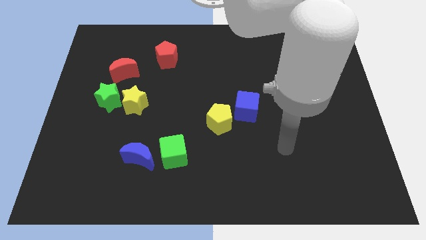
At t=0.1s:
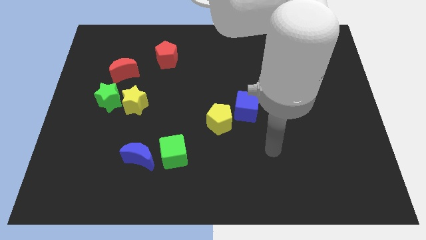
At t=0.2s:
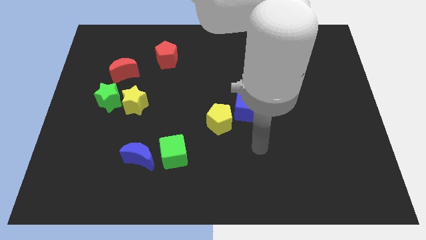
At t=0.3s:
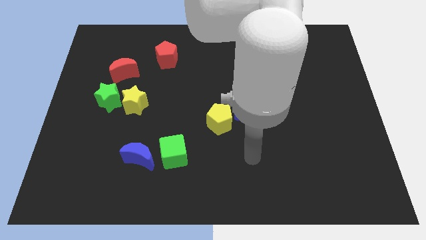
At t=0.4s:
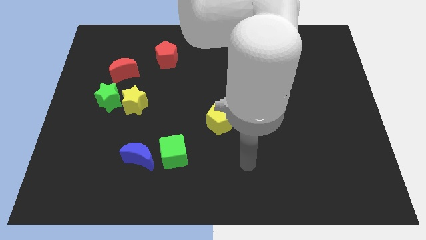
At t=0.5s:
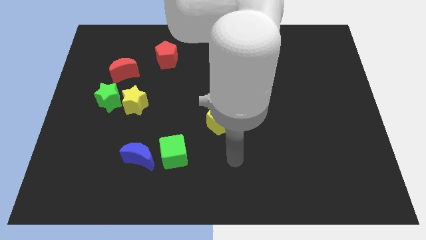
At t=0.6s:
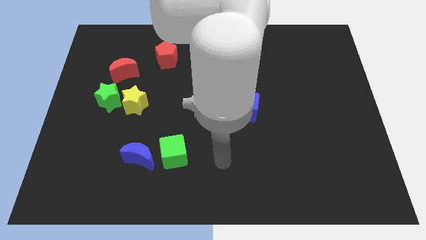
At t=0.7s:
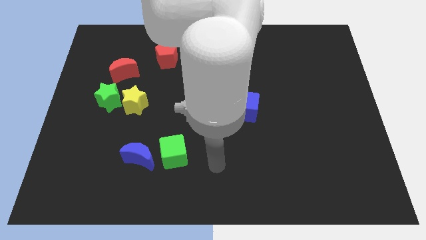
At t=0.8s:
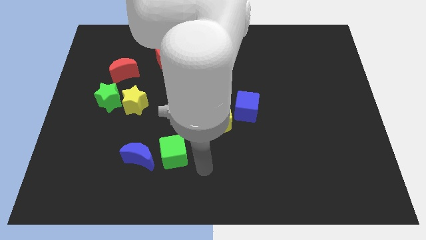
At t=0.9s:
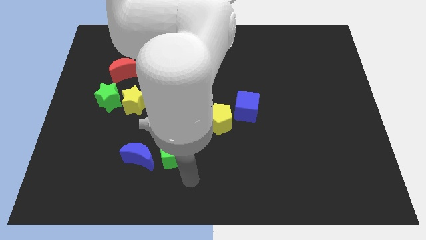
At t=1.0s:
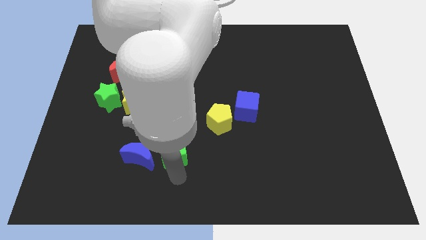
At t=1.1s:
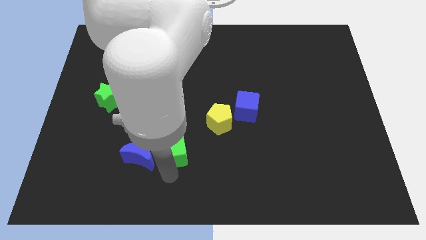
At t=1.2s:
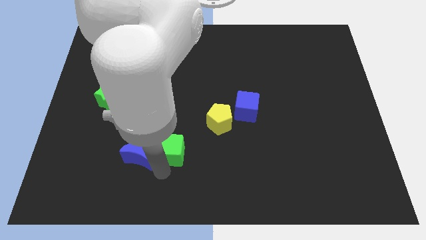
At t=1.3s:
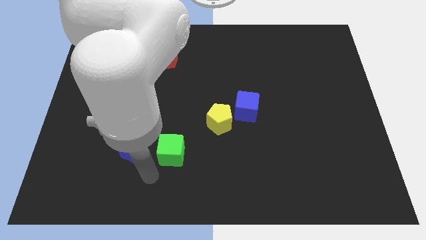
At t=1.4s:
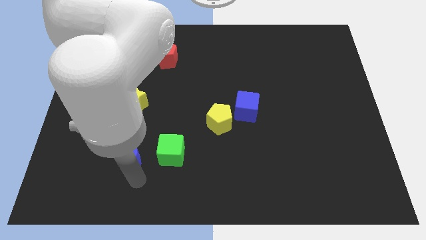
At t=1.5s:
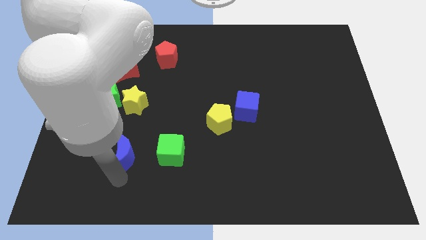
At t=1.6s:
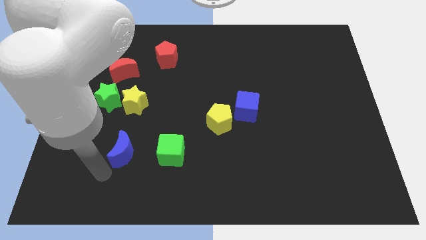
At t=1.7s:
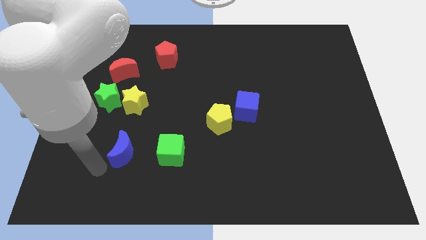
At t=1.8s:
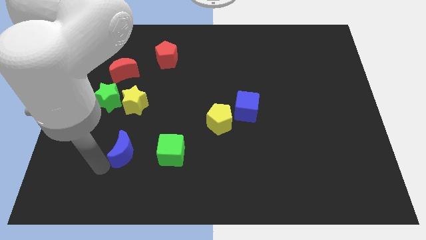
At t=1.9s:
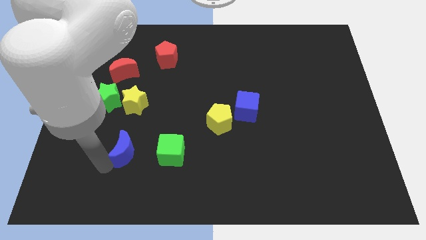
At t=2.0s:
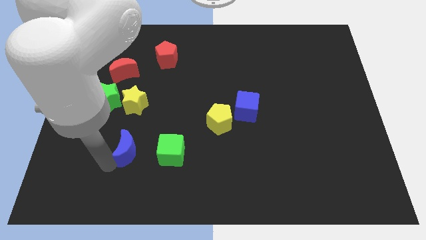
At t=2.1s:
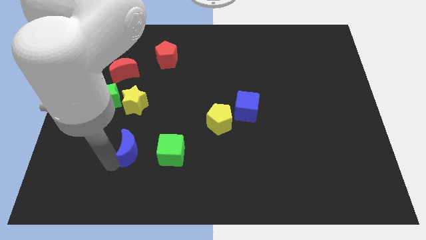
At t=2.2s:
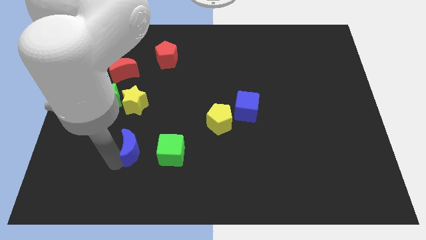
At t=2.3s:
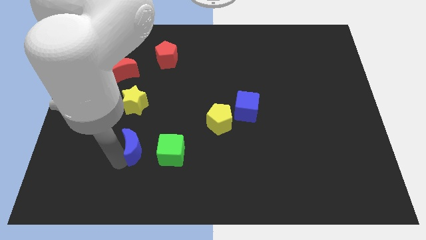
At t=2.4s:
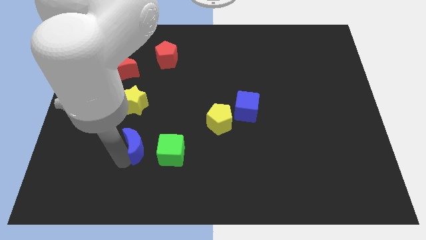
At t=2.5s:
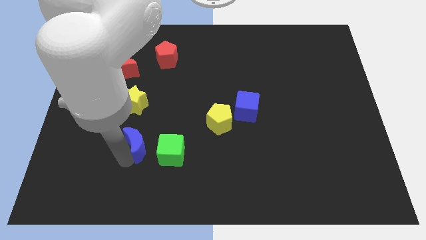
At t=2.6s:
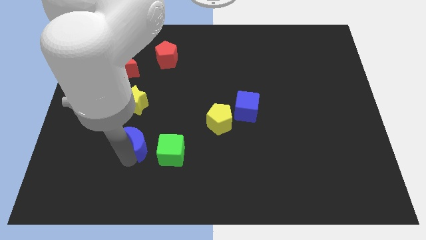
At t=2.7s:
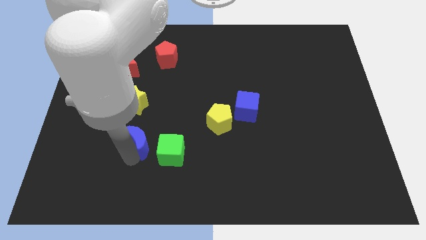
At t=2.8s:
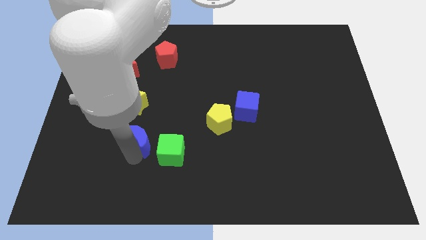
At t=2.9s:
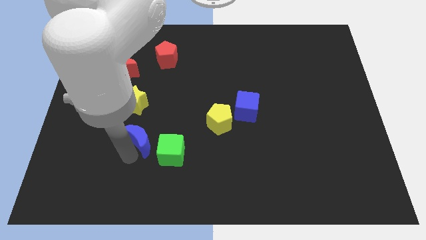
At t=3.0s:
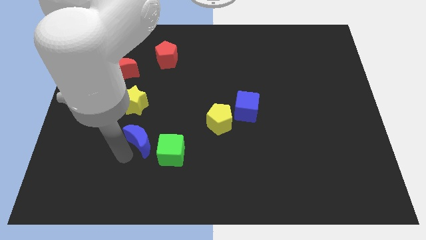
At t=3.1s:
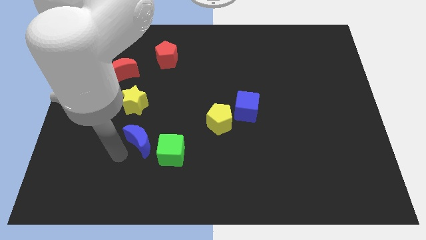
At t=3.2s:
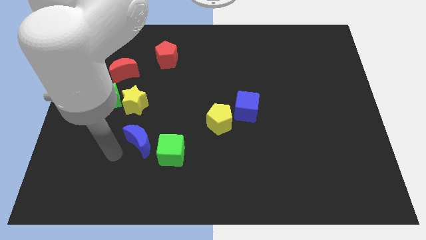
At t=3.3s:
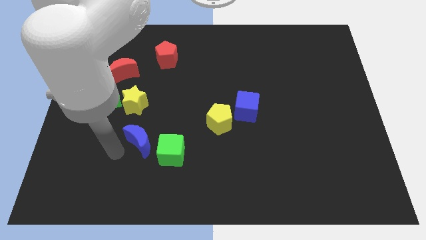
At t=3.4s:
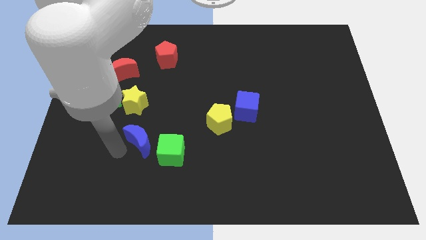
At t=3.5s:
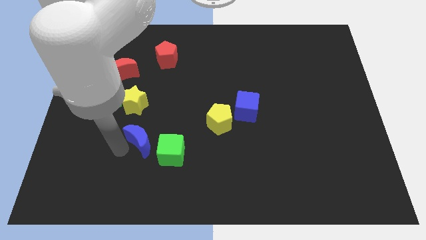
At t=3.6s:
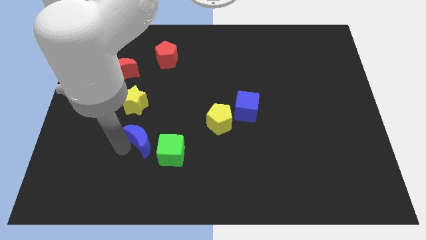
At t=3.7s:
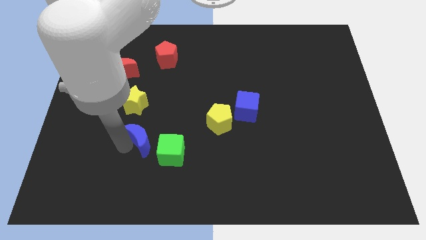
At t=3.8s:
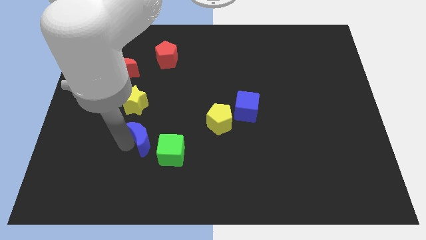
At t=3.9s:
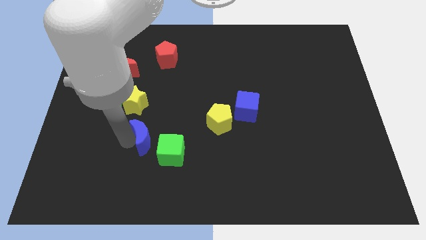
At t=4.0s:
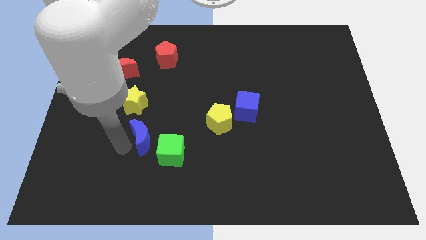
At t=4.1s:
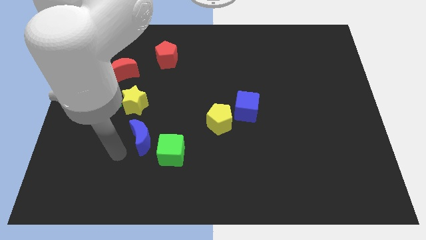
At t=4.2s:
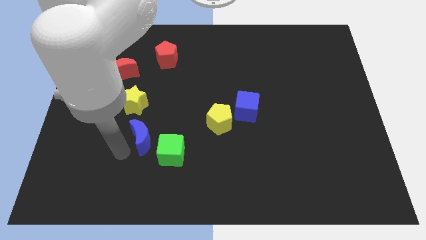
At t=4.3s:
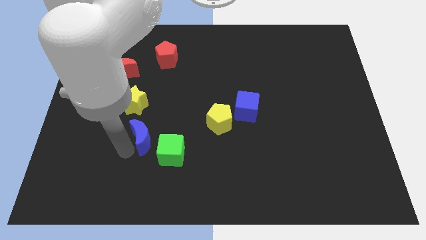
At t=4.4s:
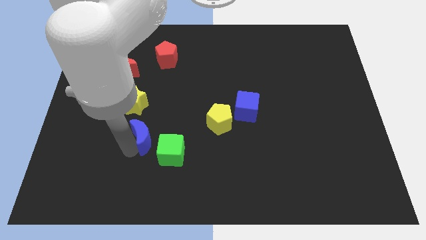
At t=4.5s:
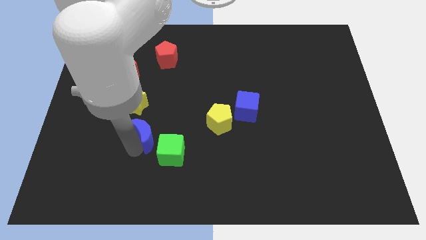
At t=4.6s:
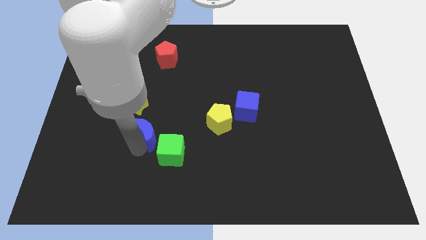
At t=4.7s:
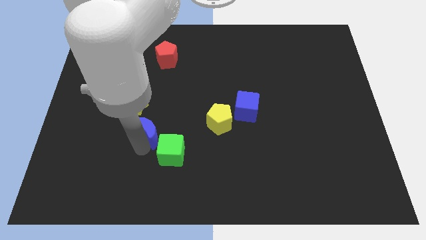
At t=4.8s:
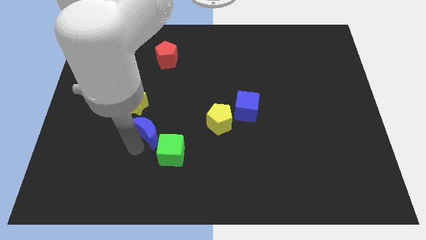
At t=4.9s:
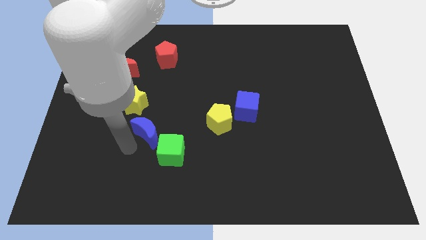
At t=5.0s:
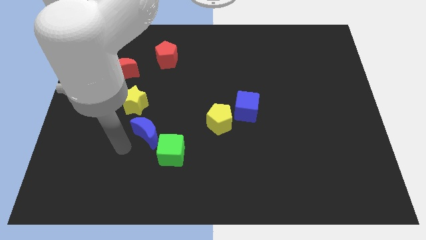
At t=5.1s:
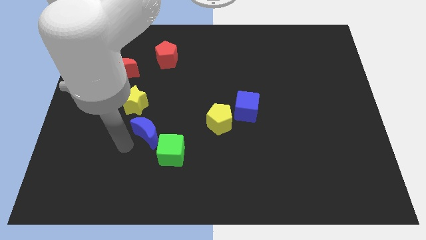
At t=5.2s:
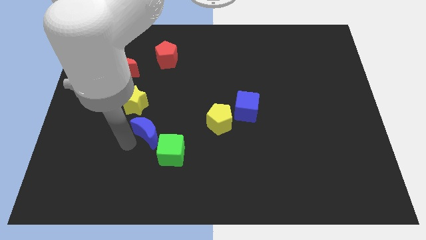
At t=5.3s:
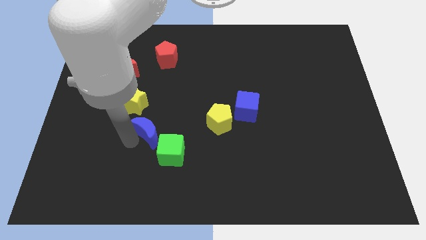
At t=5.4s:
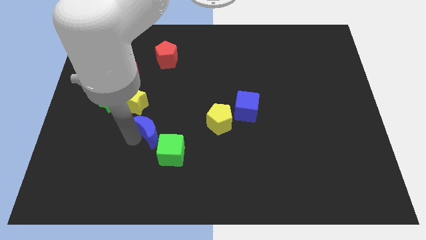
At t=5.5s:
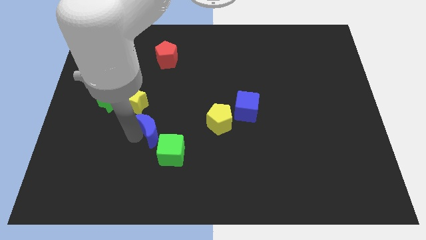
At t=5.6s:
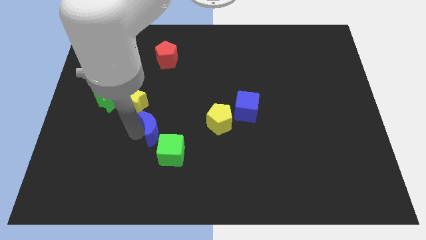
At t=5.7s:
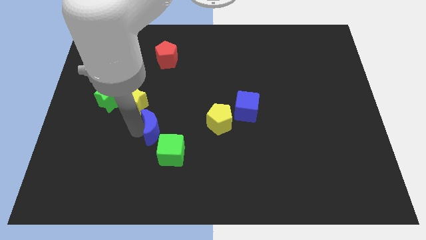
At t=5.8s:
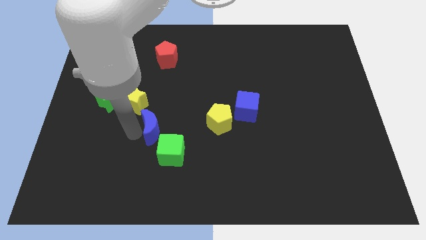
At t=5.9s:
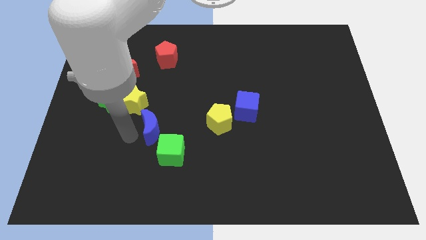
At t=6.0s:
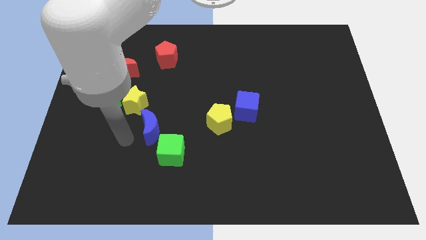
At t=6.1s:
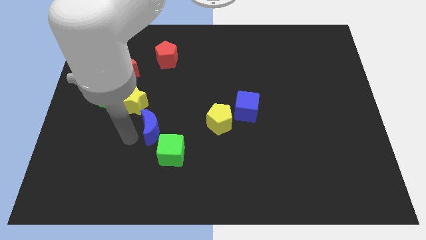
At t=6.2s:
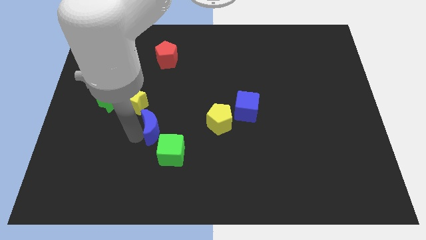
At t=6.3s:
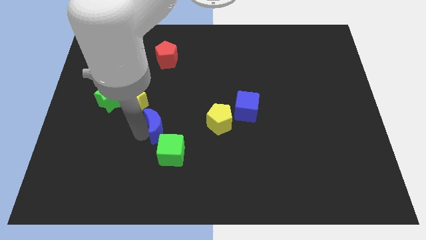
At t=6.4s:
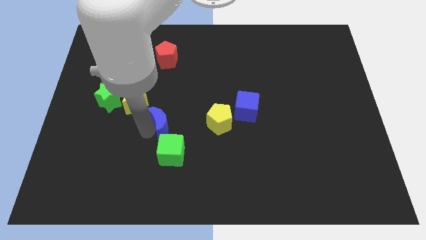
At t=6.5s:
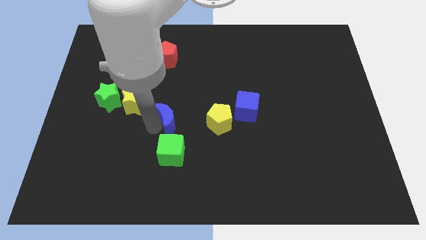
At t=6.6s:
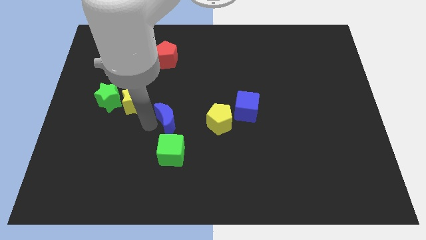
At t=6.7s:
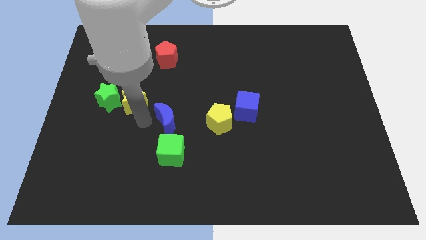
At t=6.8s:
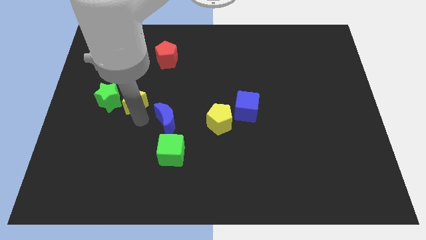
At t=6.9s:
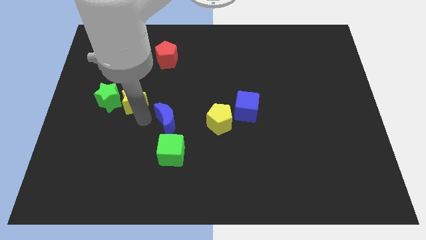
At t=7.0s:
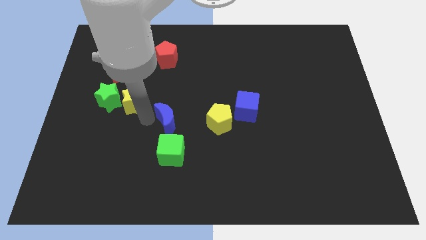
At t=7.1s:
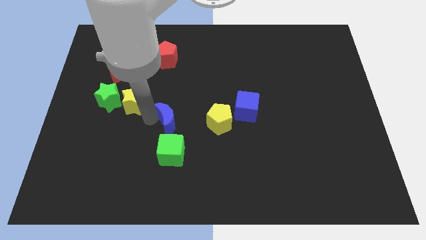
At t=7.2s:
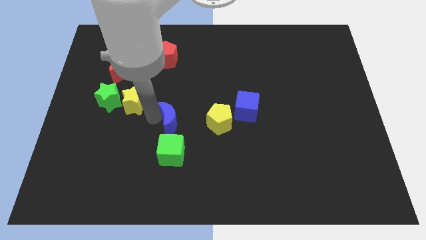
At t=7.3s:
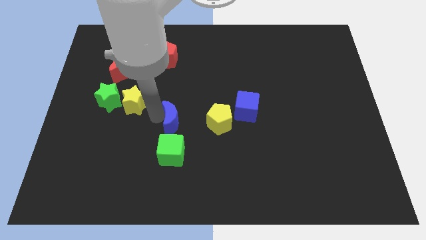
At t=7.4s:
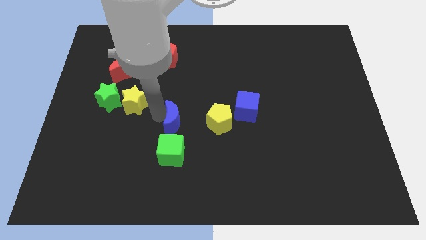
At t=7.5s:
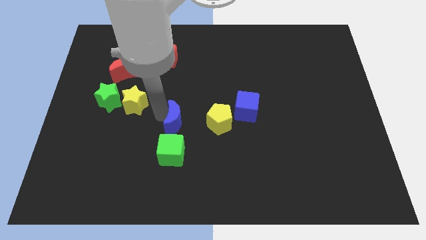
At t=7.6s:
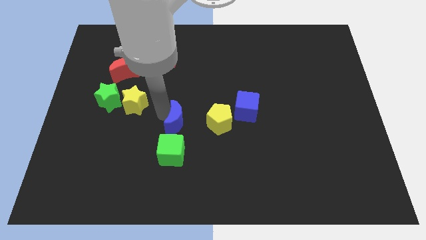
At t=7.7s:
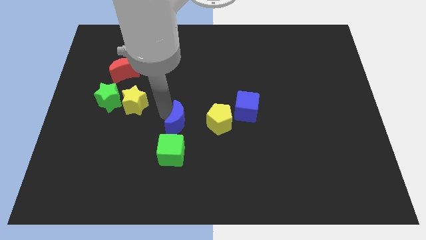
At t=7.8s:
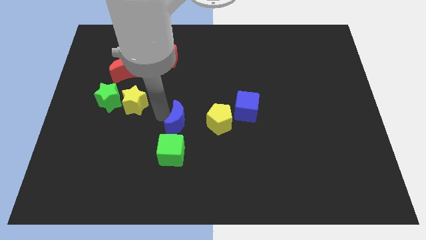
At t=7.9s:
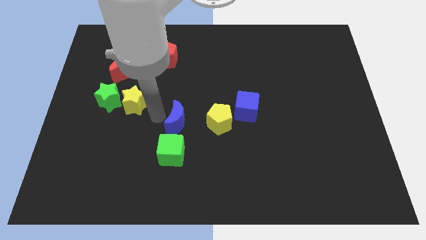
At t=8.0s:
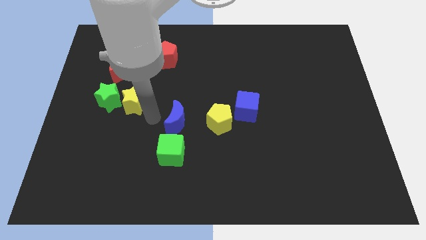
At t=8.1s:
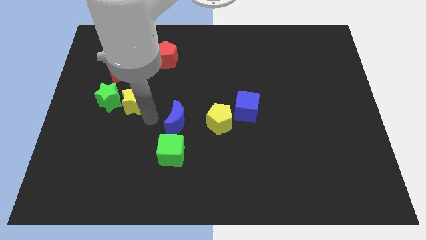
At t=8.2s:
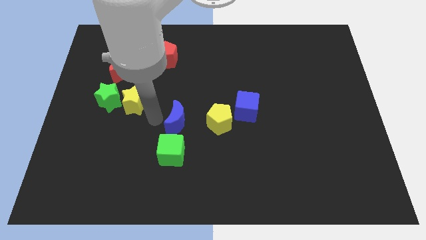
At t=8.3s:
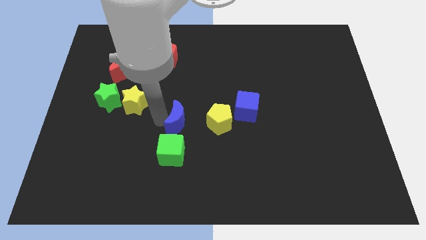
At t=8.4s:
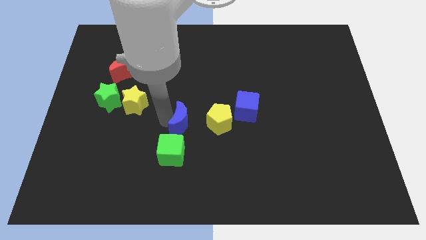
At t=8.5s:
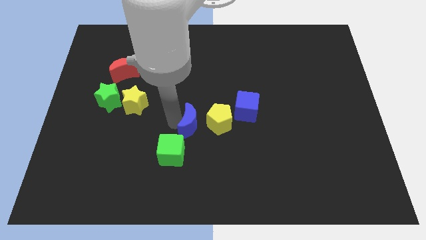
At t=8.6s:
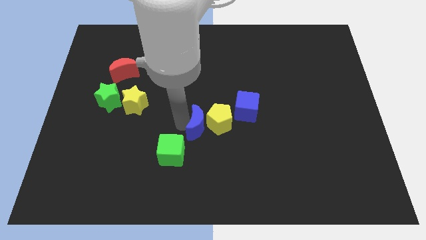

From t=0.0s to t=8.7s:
move the blue moon close to the yellow pentagon
